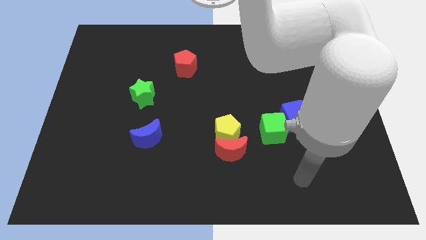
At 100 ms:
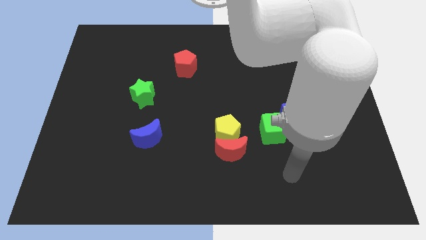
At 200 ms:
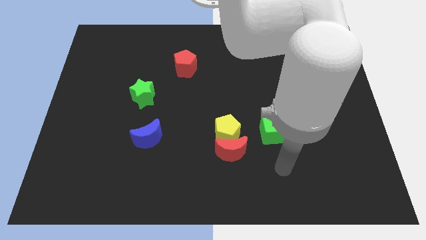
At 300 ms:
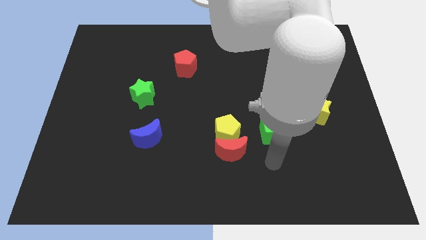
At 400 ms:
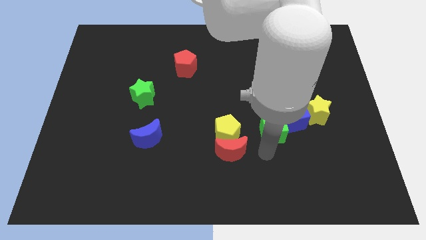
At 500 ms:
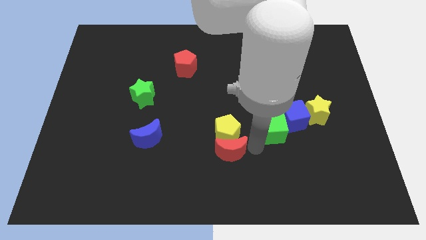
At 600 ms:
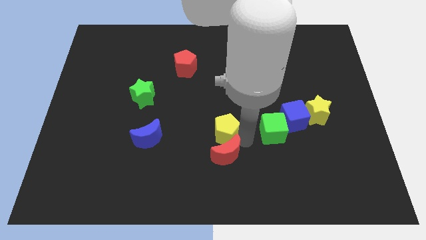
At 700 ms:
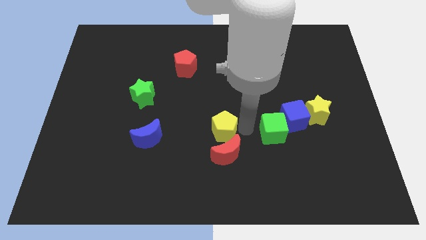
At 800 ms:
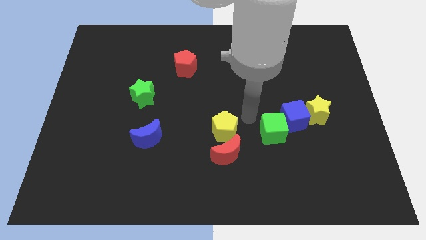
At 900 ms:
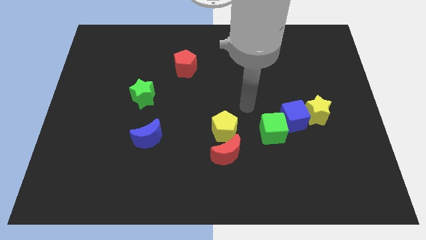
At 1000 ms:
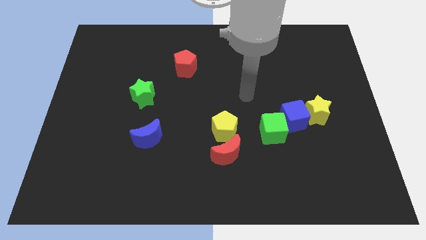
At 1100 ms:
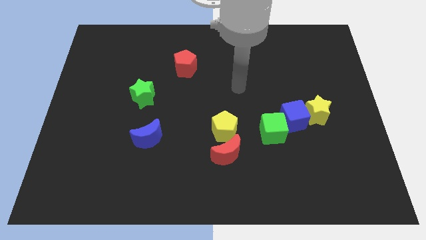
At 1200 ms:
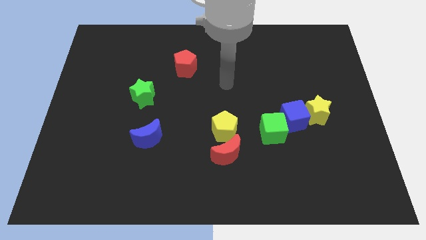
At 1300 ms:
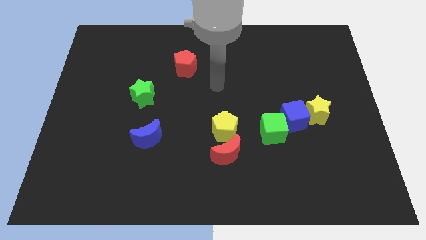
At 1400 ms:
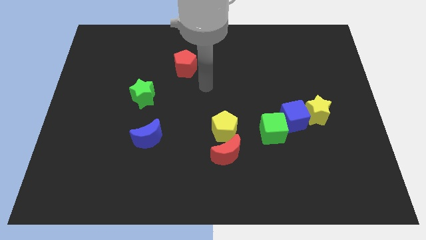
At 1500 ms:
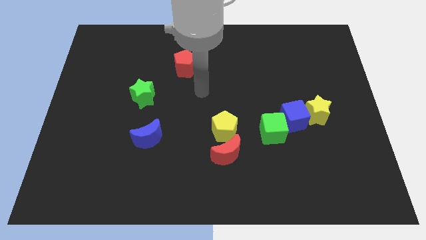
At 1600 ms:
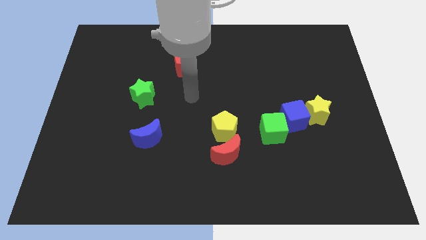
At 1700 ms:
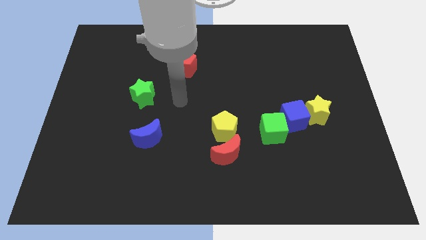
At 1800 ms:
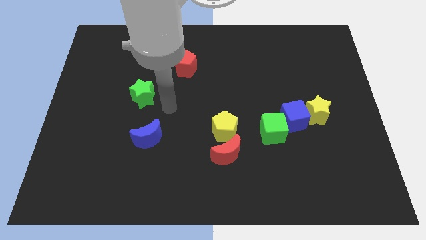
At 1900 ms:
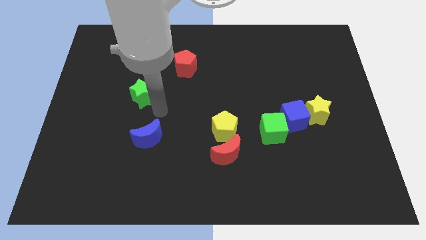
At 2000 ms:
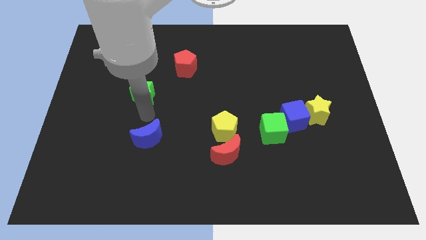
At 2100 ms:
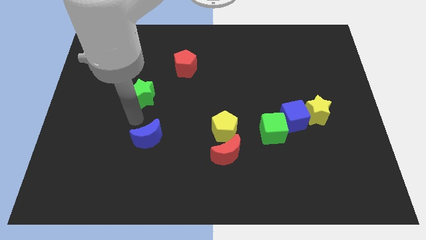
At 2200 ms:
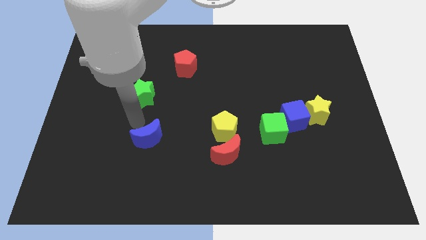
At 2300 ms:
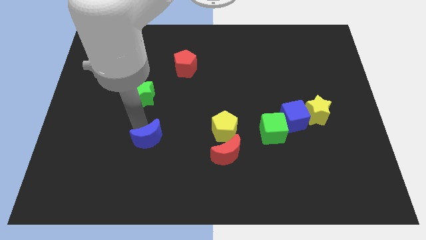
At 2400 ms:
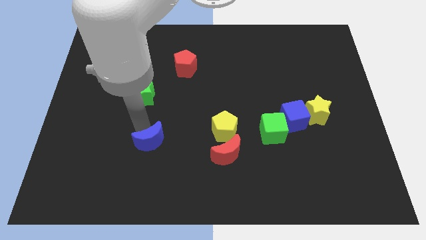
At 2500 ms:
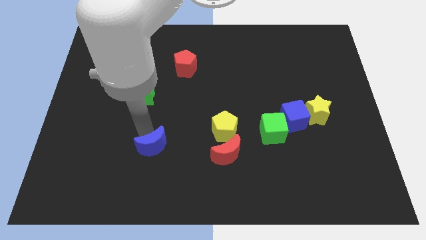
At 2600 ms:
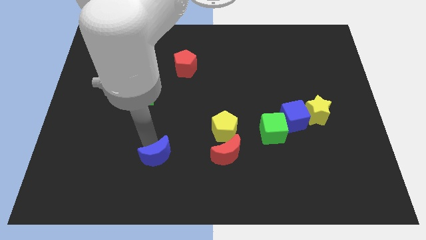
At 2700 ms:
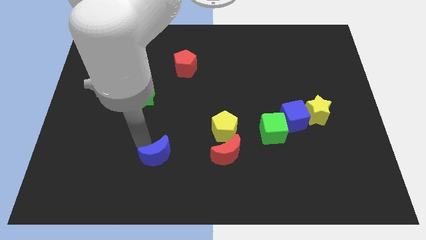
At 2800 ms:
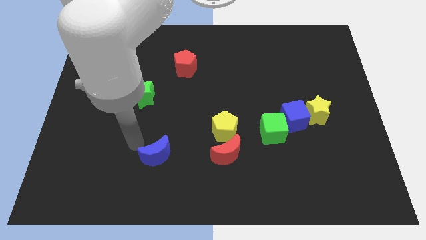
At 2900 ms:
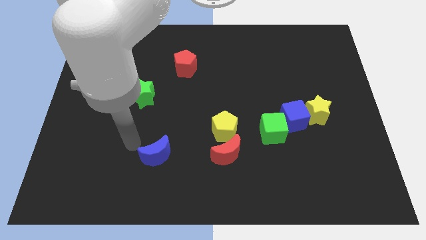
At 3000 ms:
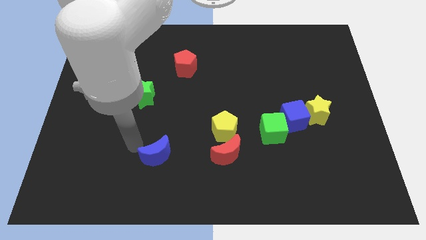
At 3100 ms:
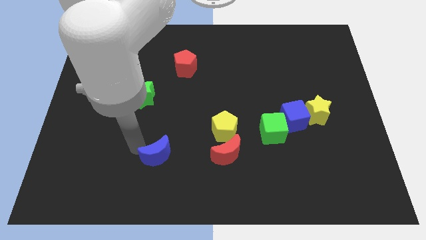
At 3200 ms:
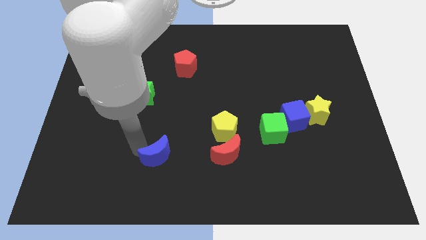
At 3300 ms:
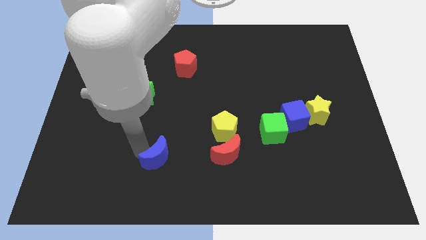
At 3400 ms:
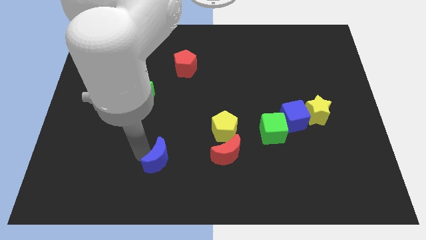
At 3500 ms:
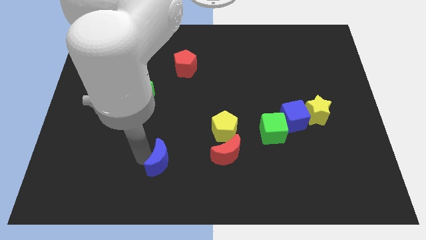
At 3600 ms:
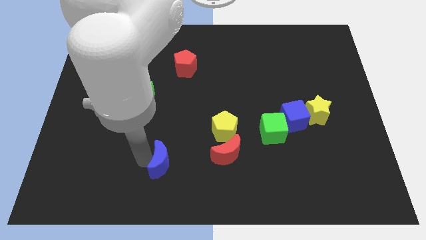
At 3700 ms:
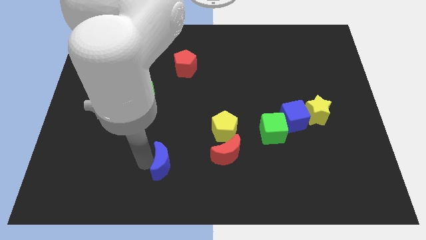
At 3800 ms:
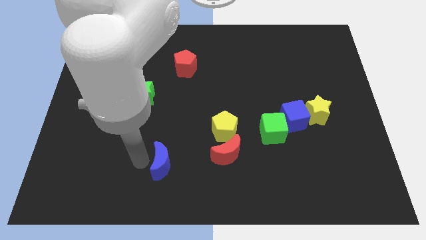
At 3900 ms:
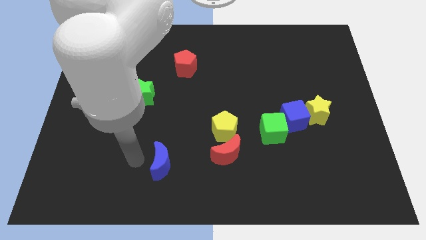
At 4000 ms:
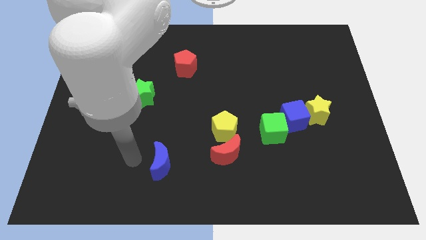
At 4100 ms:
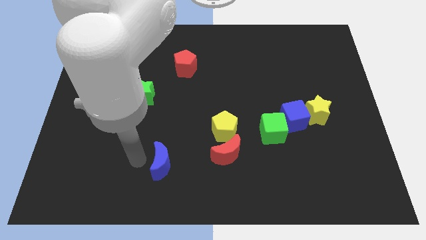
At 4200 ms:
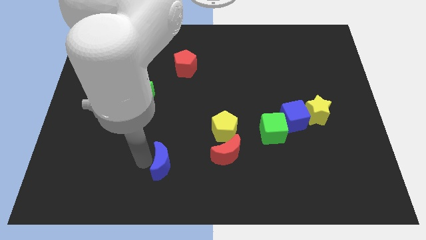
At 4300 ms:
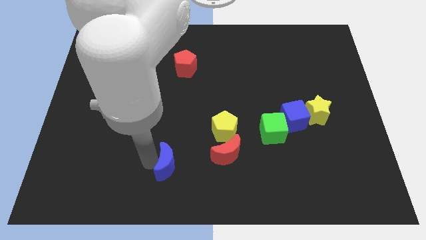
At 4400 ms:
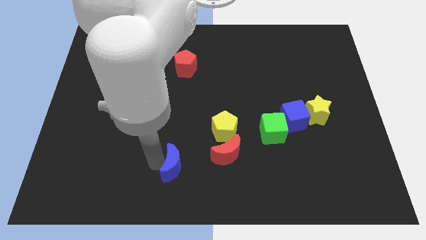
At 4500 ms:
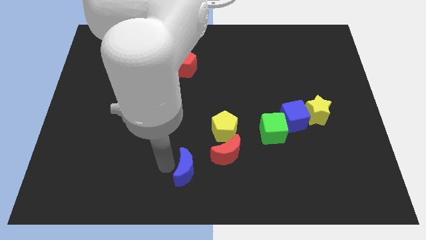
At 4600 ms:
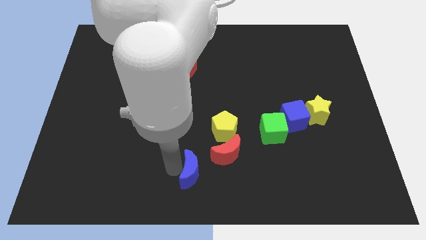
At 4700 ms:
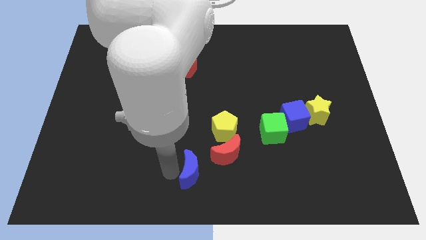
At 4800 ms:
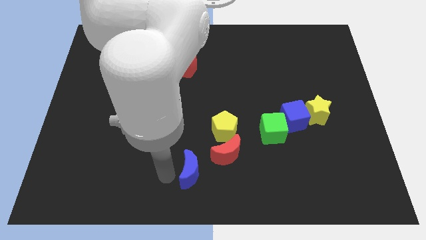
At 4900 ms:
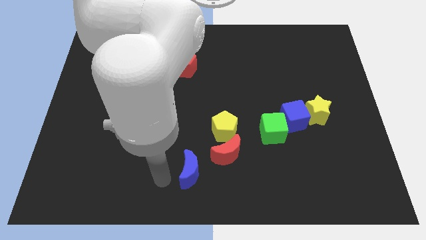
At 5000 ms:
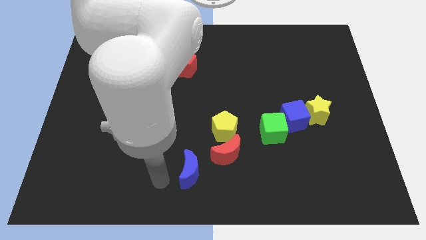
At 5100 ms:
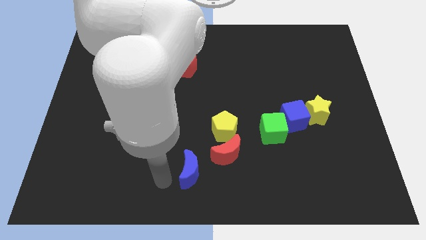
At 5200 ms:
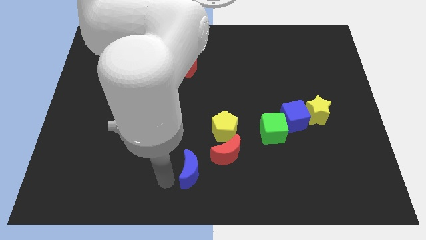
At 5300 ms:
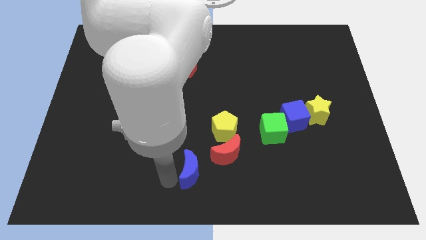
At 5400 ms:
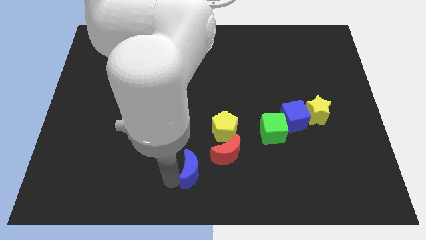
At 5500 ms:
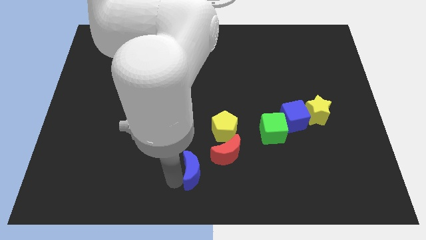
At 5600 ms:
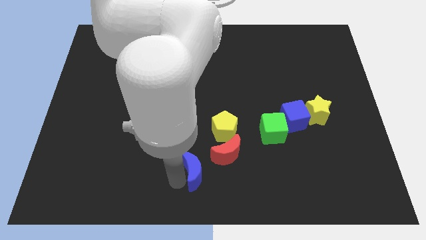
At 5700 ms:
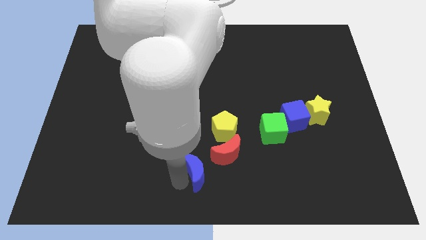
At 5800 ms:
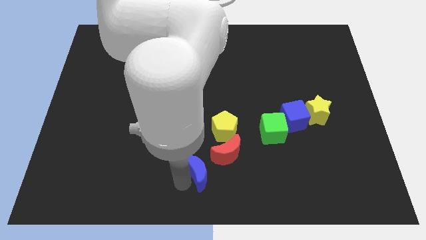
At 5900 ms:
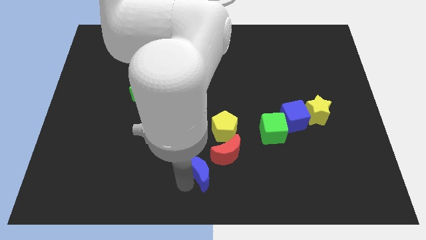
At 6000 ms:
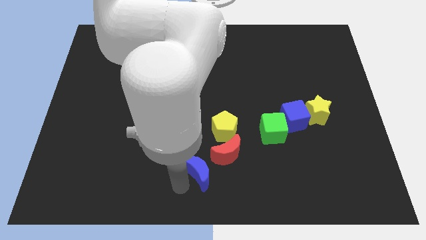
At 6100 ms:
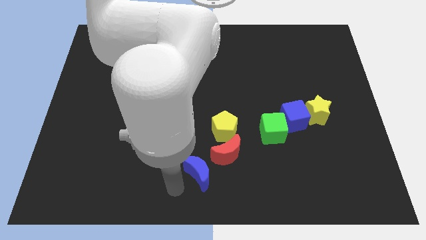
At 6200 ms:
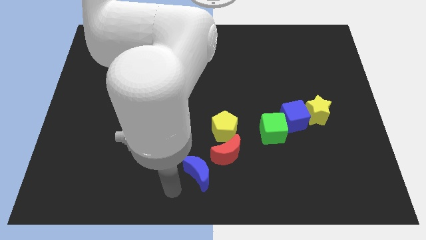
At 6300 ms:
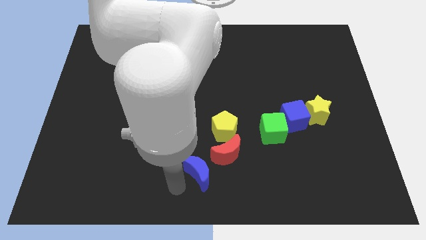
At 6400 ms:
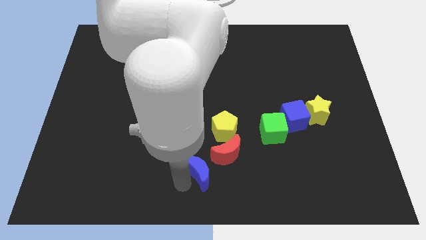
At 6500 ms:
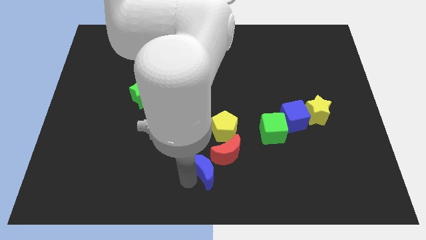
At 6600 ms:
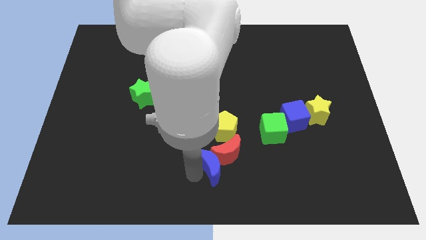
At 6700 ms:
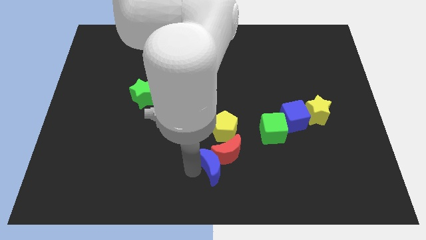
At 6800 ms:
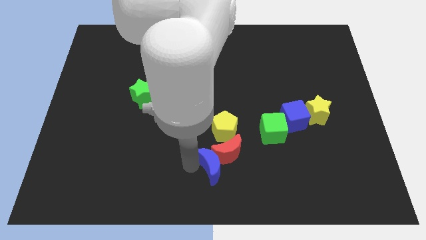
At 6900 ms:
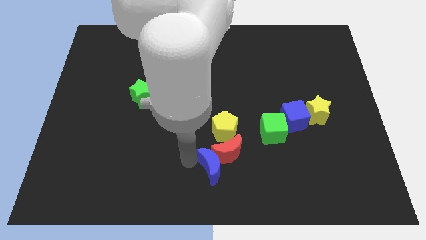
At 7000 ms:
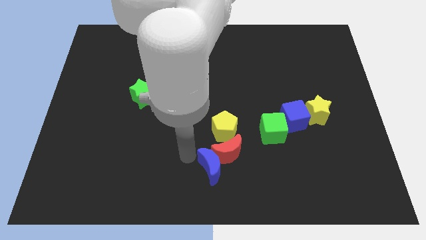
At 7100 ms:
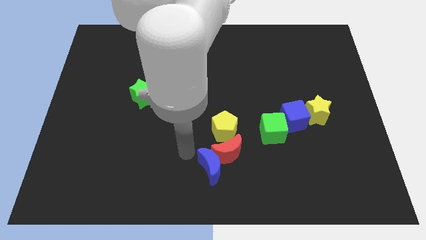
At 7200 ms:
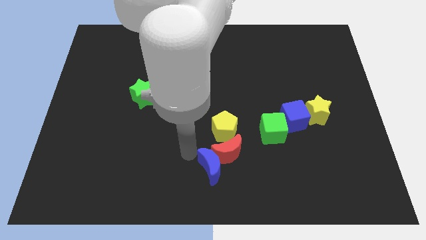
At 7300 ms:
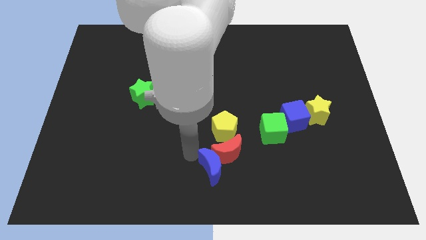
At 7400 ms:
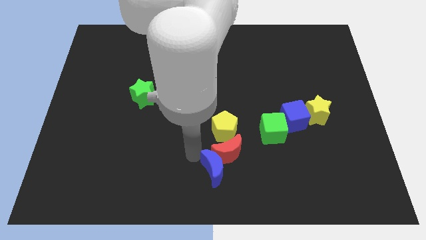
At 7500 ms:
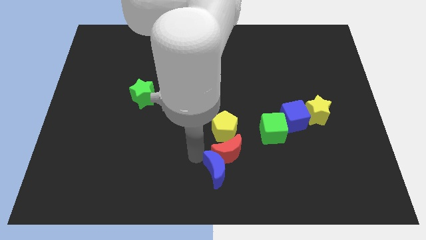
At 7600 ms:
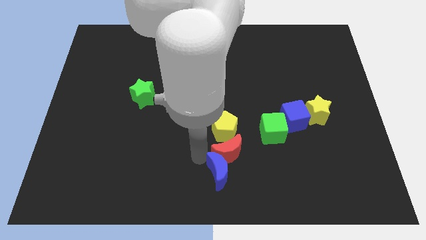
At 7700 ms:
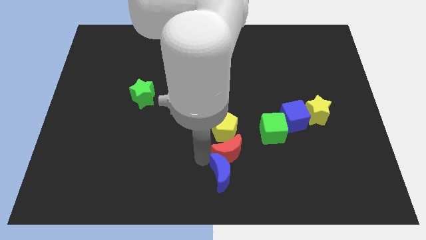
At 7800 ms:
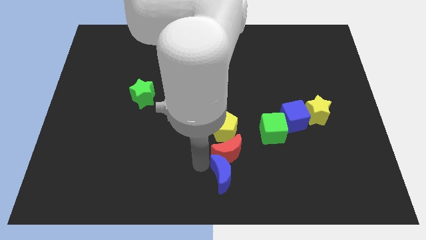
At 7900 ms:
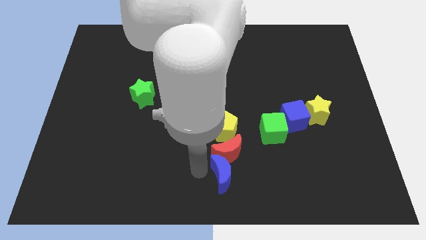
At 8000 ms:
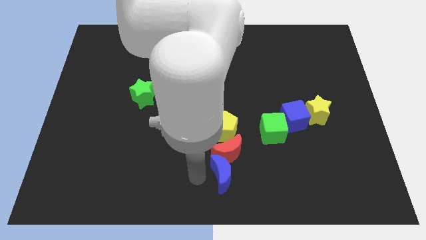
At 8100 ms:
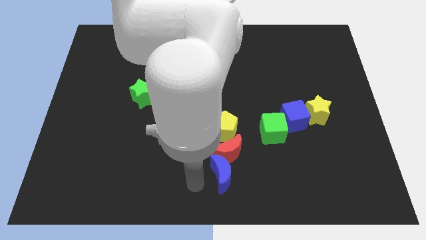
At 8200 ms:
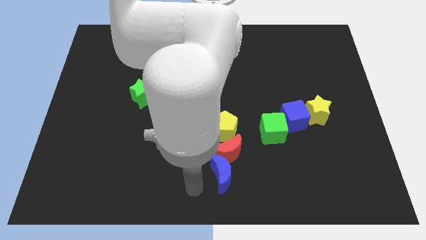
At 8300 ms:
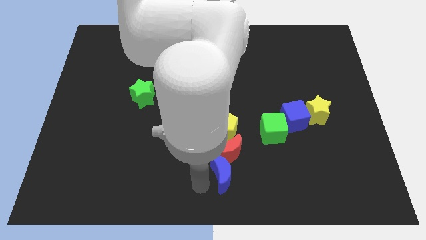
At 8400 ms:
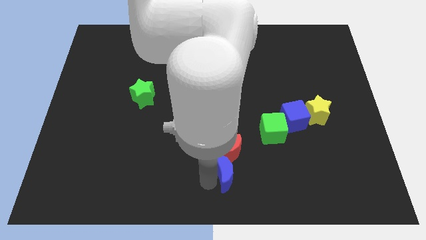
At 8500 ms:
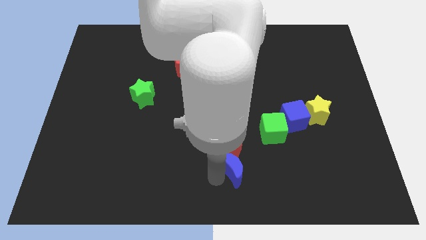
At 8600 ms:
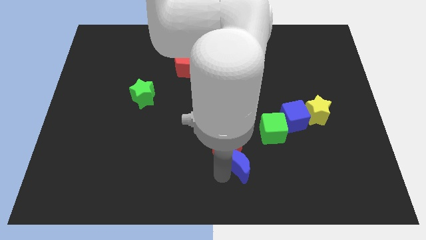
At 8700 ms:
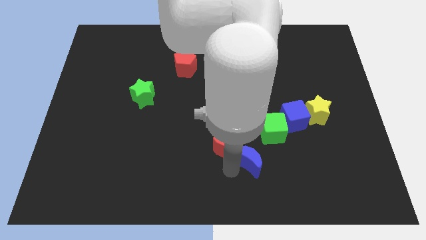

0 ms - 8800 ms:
push the blue moon to the right
